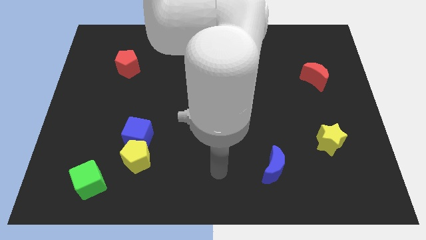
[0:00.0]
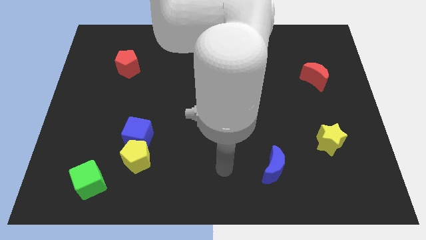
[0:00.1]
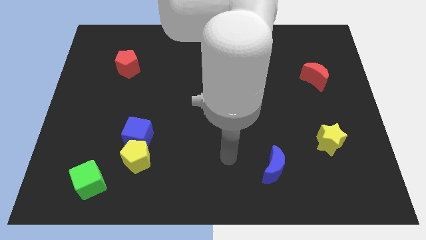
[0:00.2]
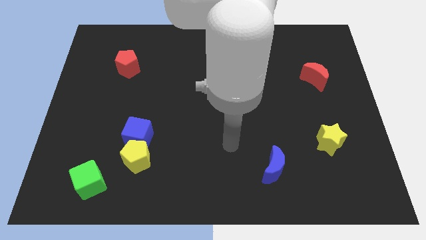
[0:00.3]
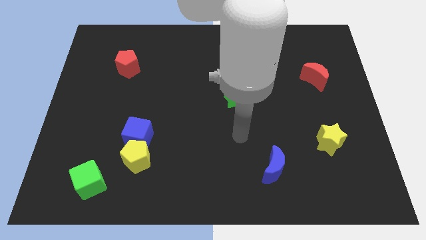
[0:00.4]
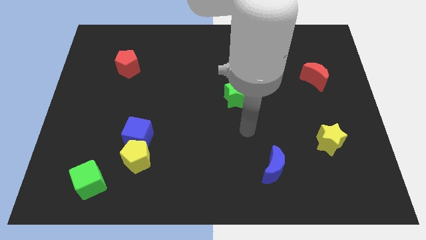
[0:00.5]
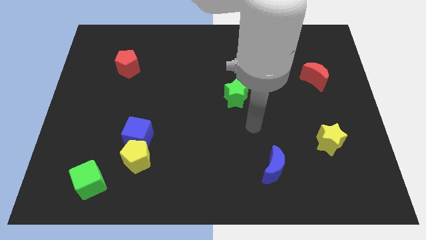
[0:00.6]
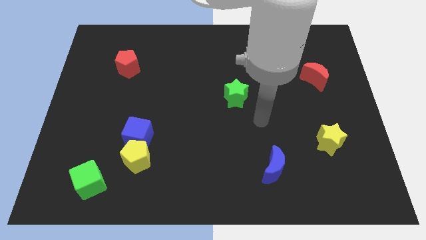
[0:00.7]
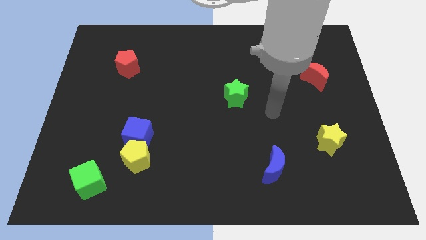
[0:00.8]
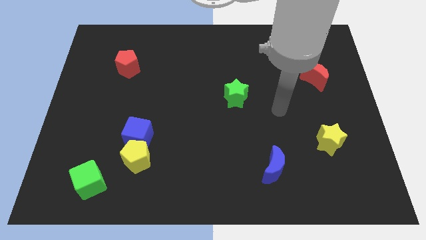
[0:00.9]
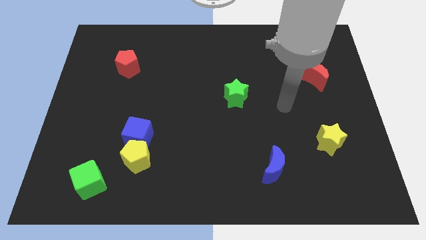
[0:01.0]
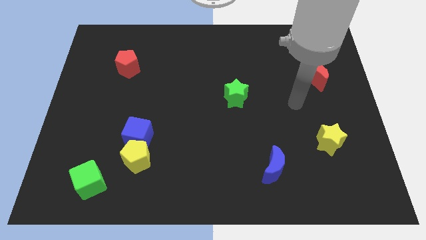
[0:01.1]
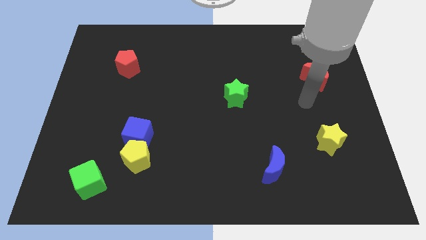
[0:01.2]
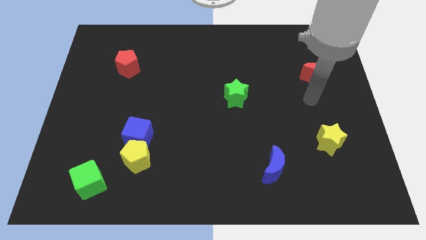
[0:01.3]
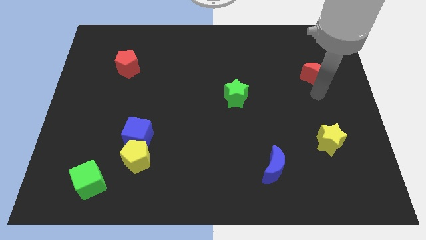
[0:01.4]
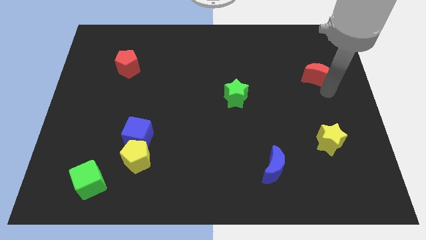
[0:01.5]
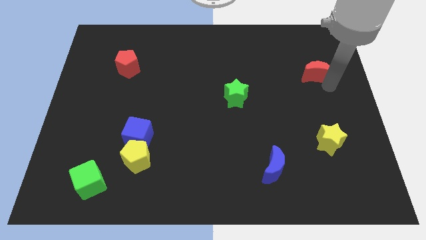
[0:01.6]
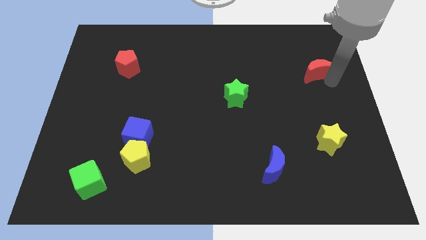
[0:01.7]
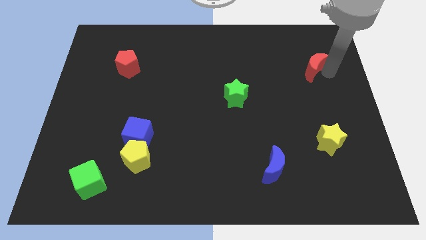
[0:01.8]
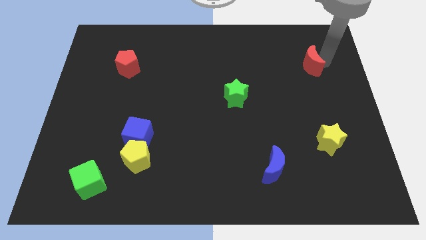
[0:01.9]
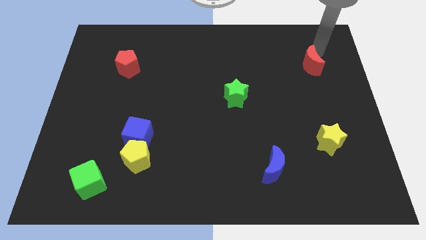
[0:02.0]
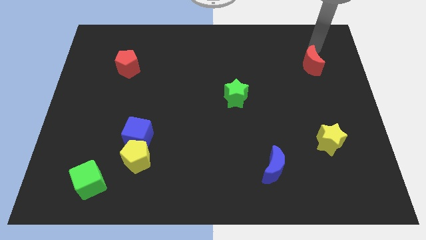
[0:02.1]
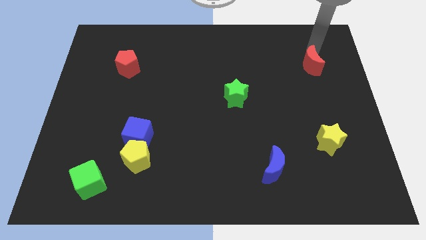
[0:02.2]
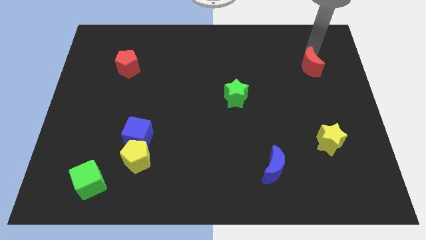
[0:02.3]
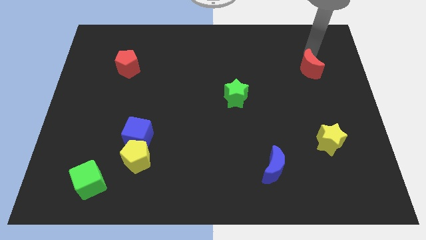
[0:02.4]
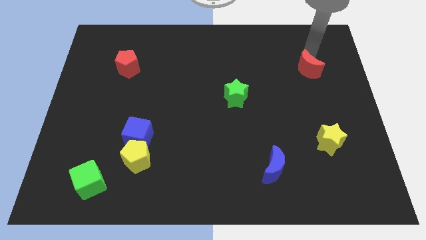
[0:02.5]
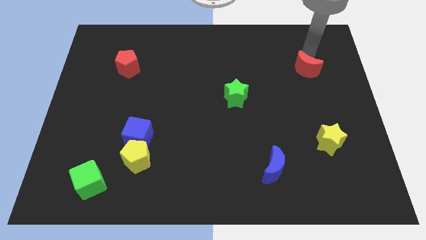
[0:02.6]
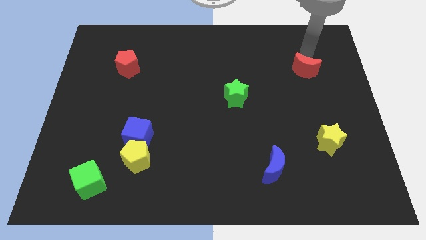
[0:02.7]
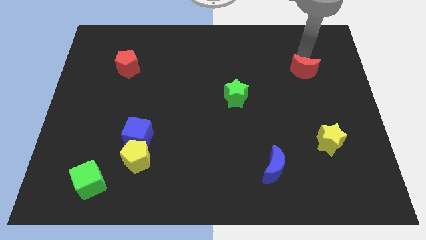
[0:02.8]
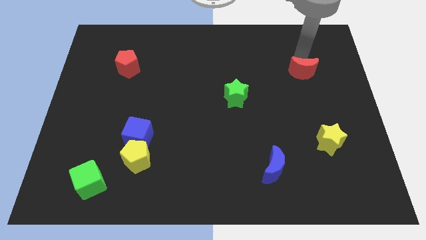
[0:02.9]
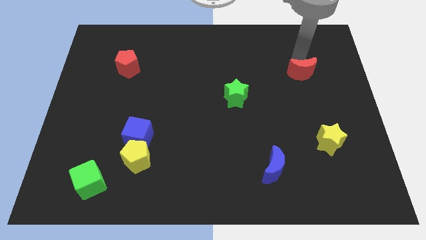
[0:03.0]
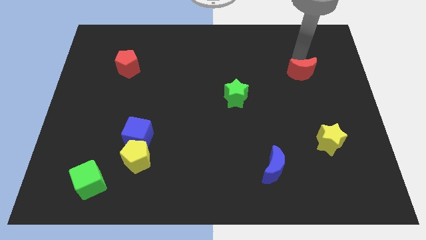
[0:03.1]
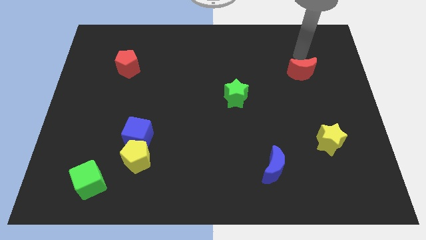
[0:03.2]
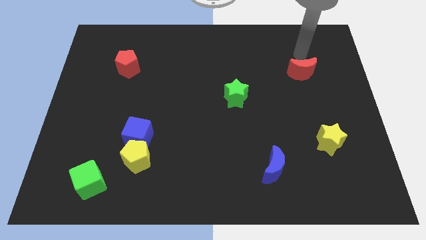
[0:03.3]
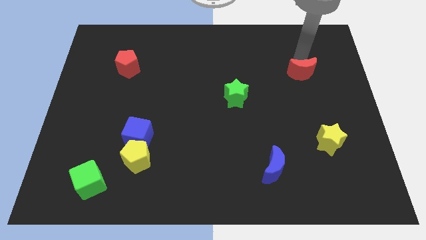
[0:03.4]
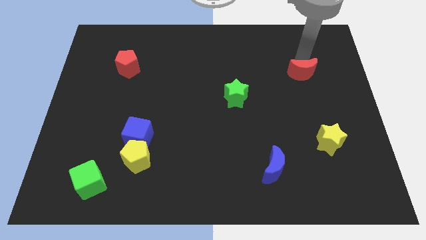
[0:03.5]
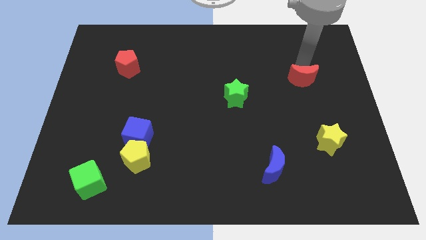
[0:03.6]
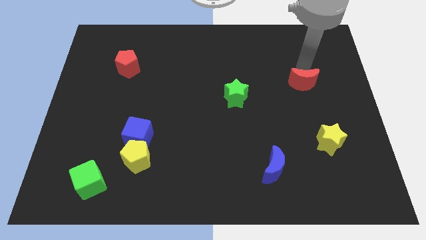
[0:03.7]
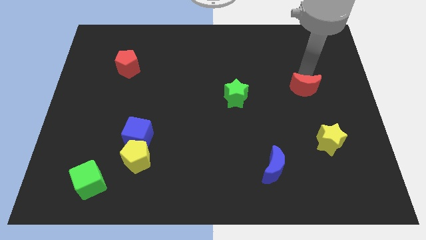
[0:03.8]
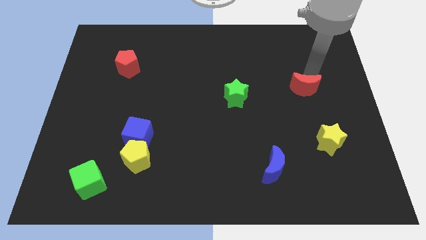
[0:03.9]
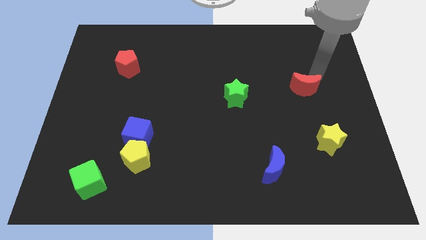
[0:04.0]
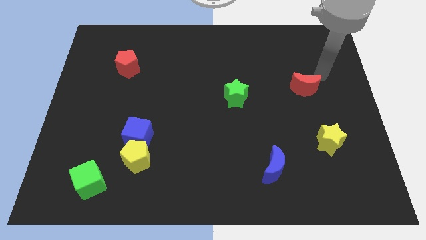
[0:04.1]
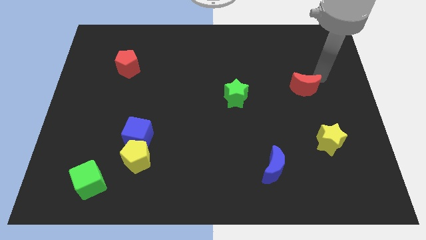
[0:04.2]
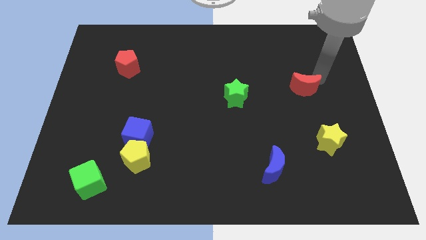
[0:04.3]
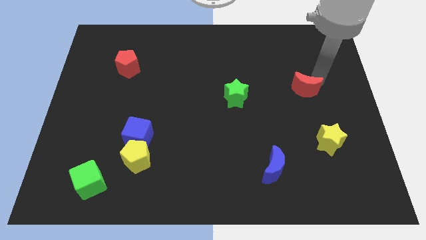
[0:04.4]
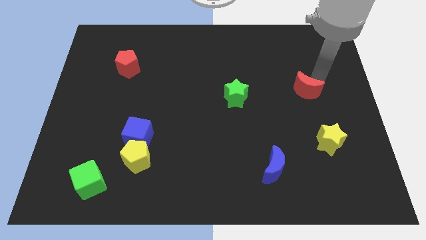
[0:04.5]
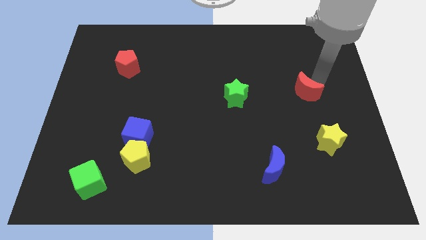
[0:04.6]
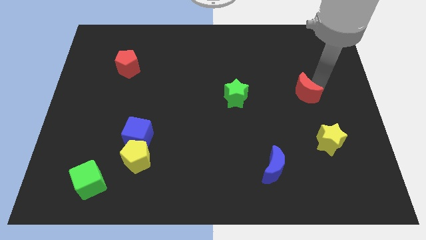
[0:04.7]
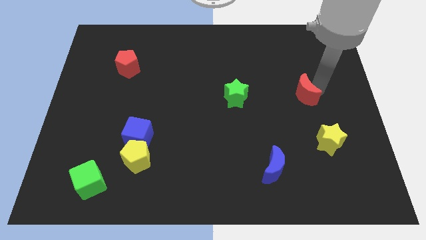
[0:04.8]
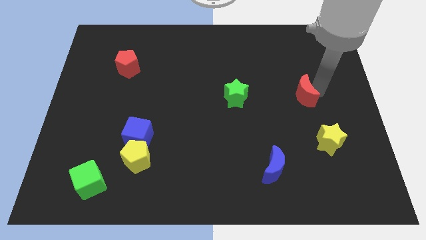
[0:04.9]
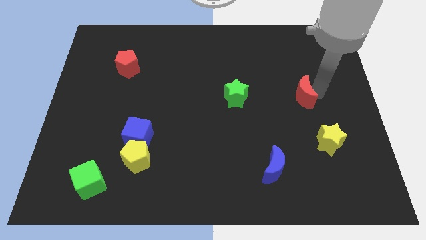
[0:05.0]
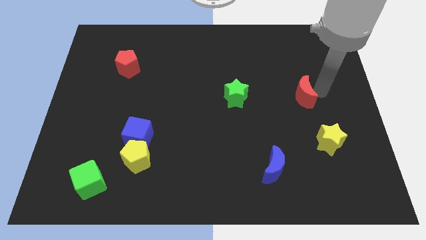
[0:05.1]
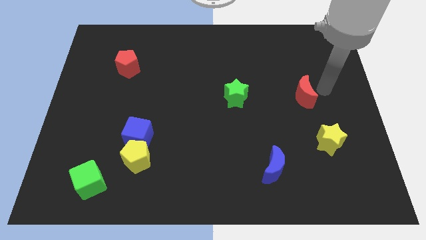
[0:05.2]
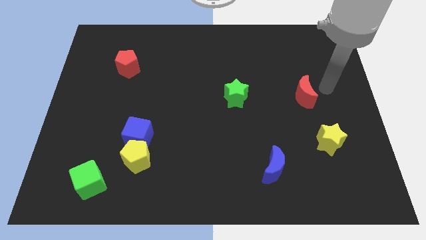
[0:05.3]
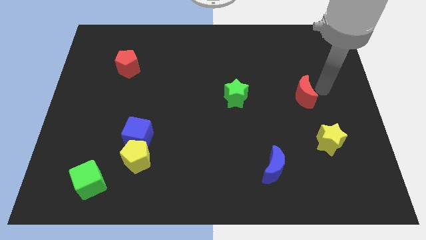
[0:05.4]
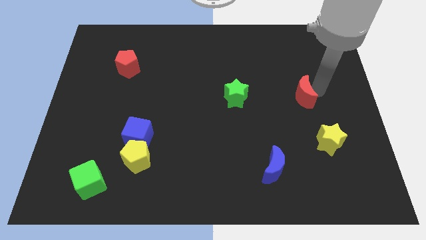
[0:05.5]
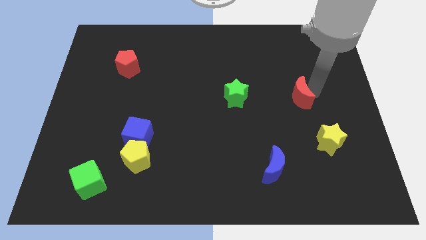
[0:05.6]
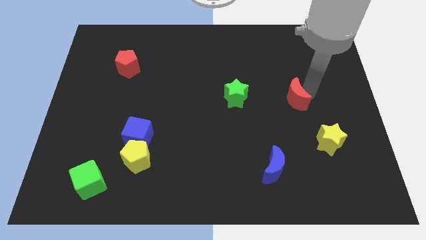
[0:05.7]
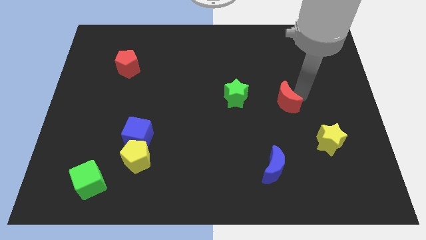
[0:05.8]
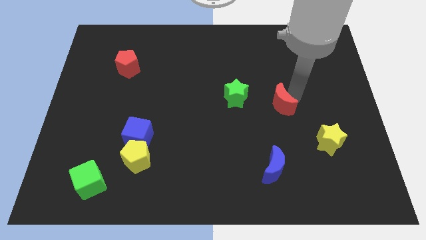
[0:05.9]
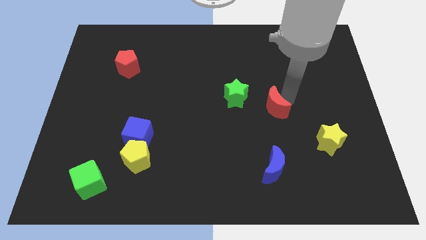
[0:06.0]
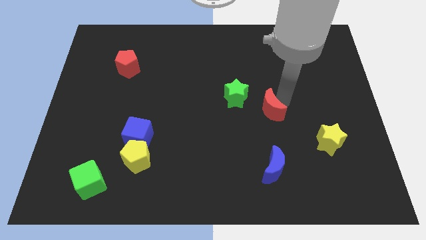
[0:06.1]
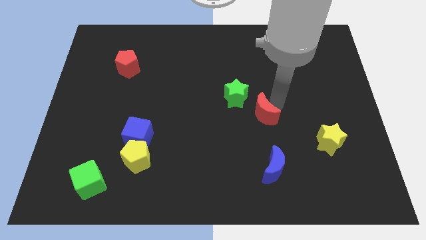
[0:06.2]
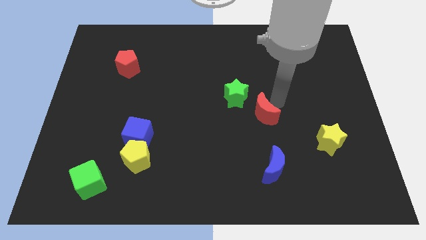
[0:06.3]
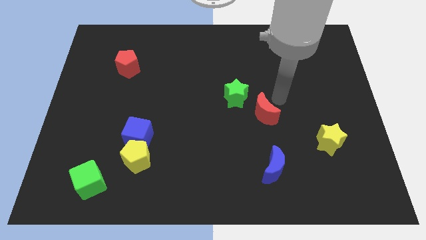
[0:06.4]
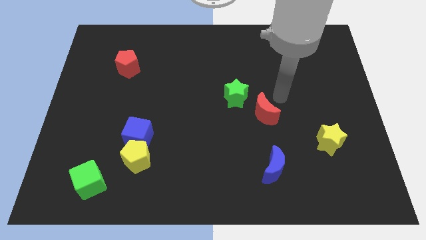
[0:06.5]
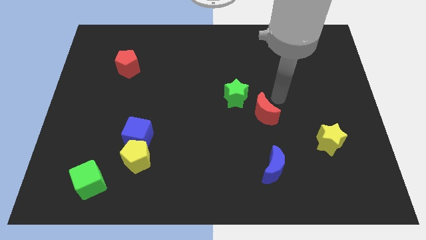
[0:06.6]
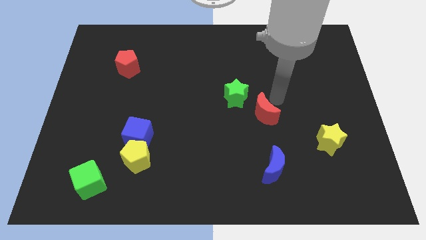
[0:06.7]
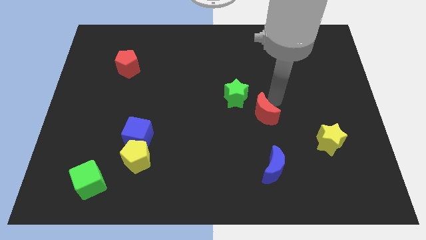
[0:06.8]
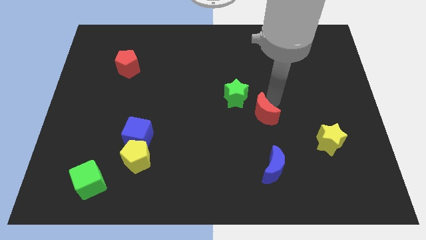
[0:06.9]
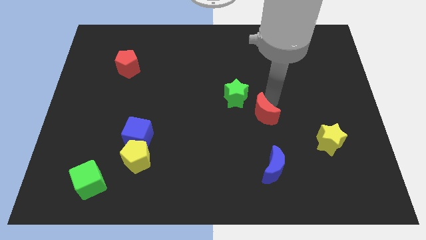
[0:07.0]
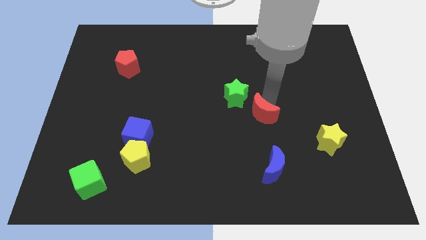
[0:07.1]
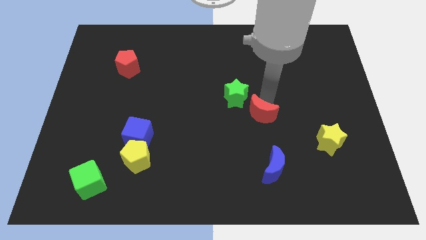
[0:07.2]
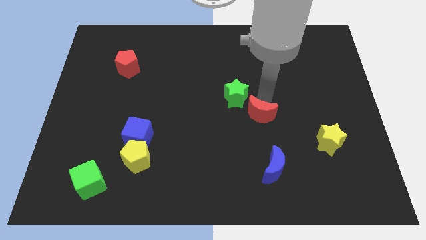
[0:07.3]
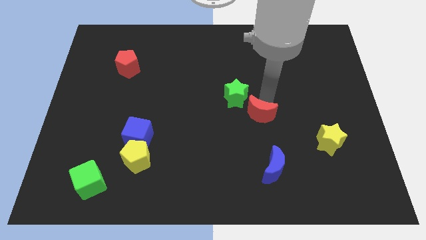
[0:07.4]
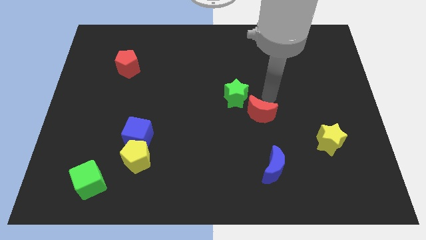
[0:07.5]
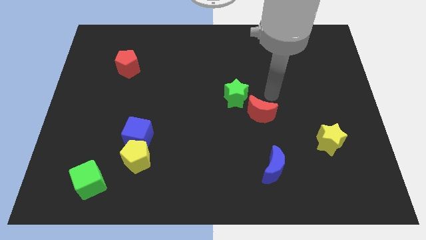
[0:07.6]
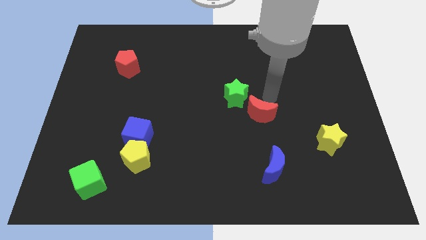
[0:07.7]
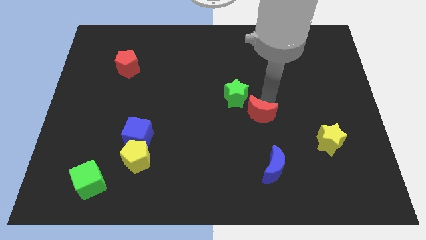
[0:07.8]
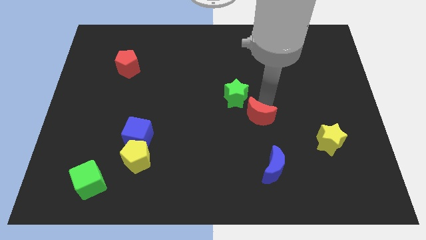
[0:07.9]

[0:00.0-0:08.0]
push the red moon below the green star
